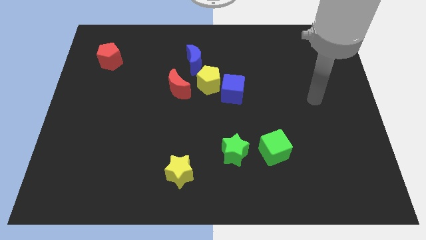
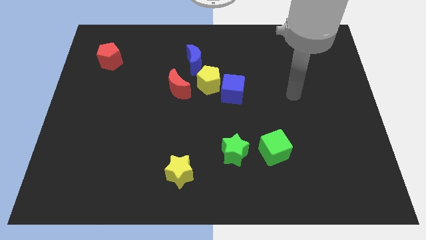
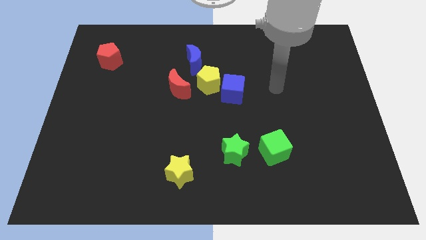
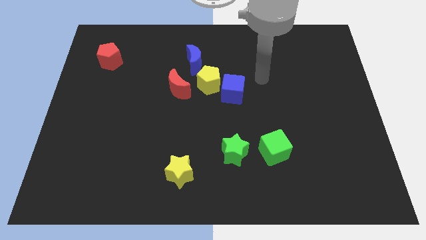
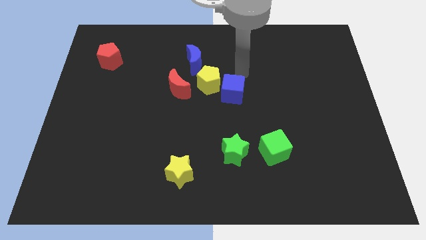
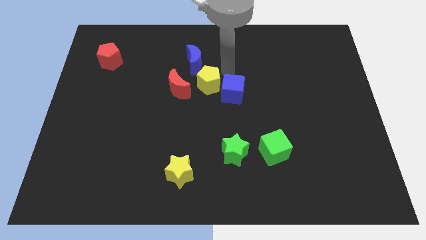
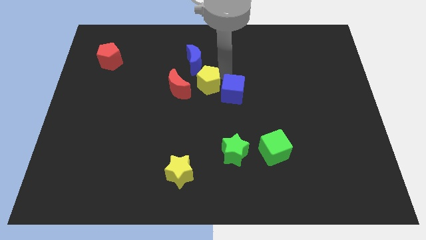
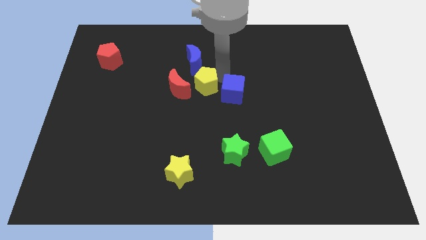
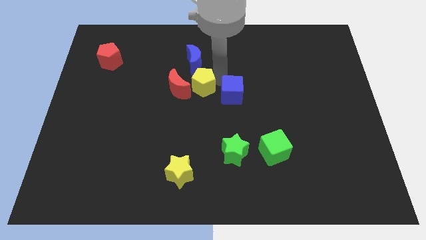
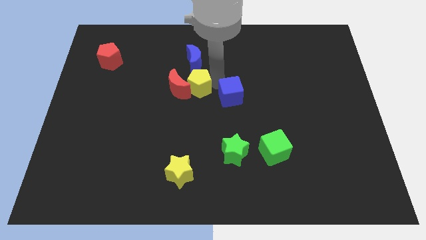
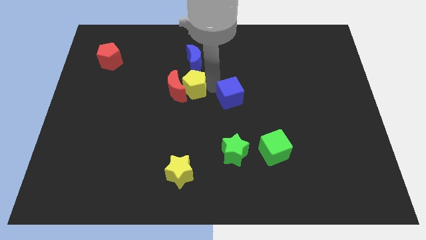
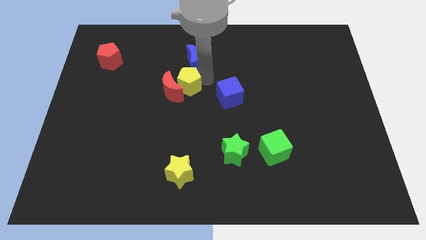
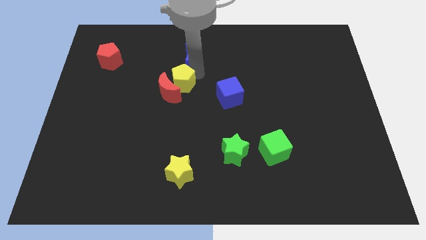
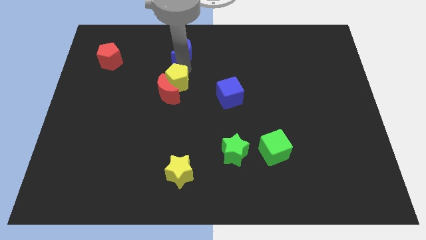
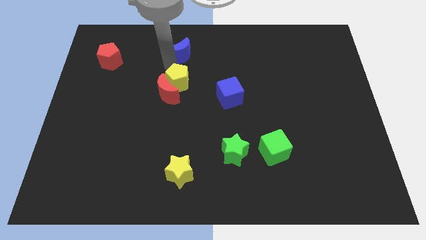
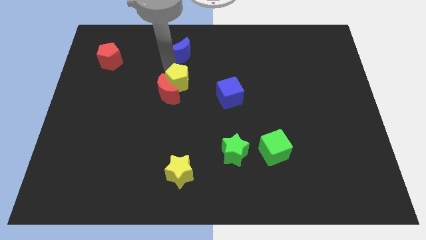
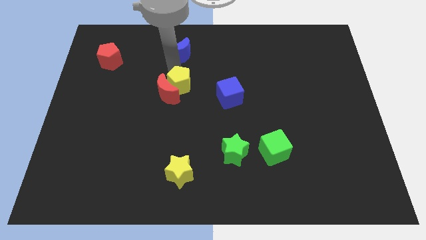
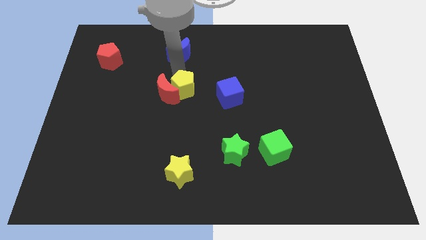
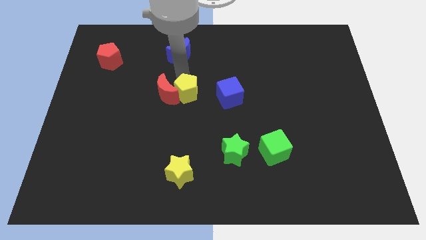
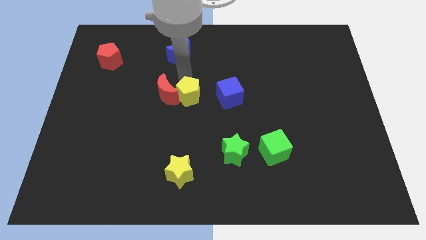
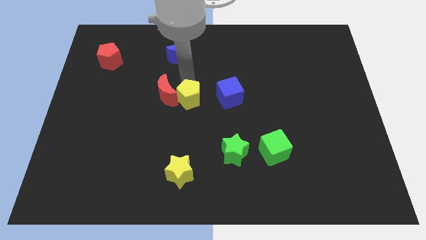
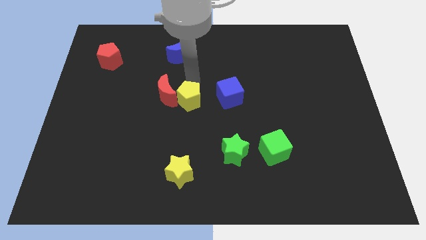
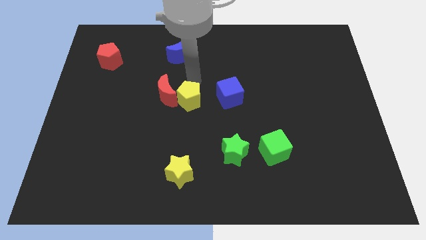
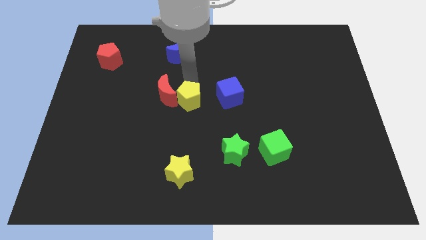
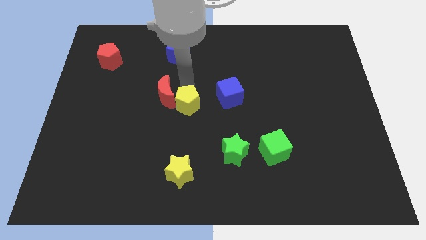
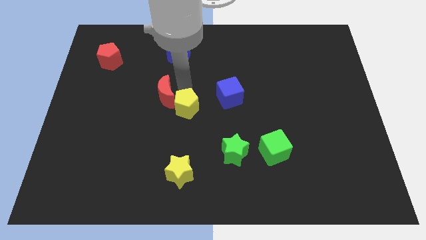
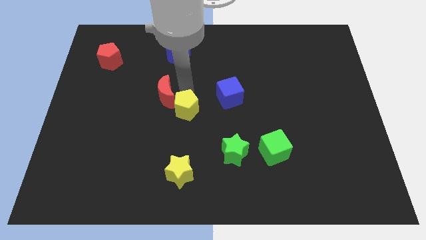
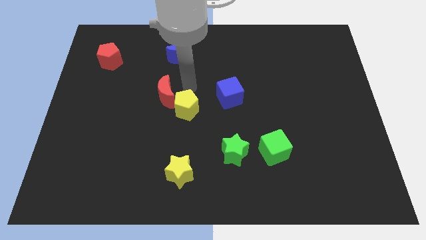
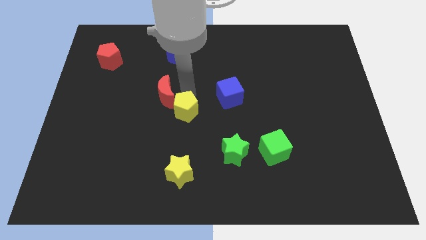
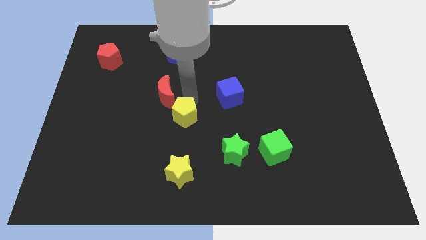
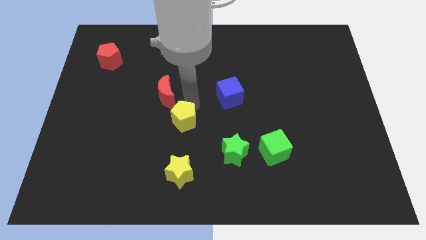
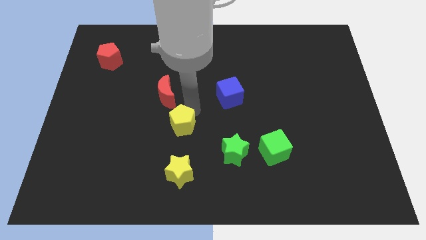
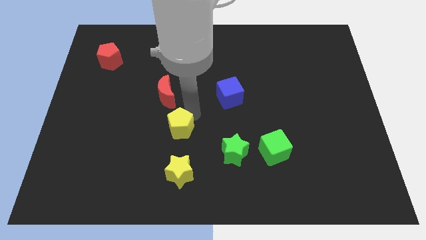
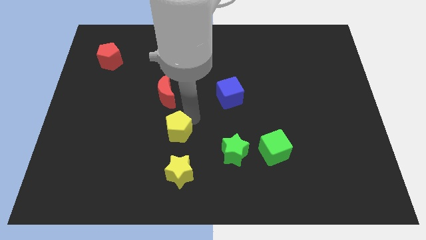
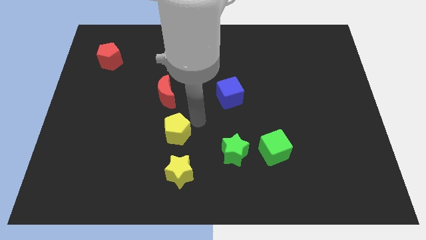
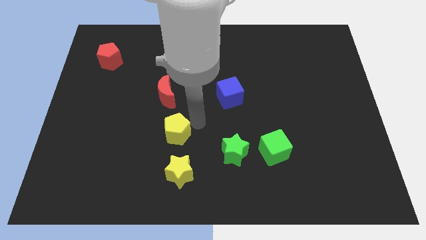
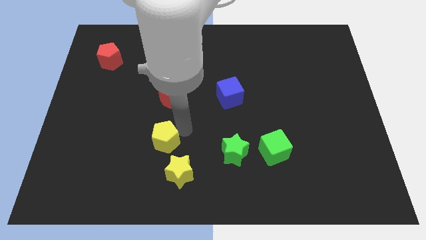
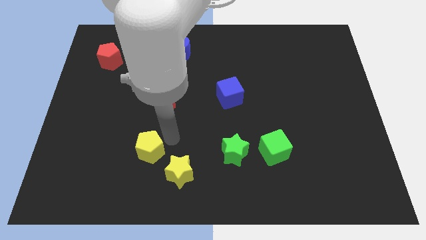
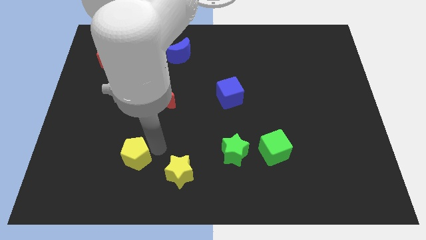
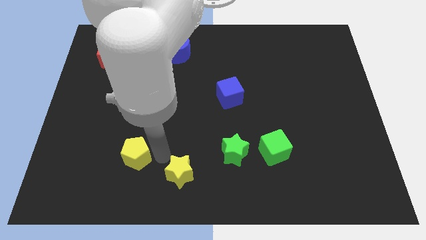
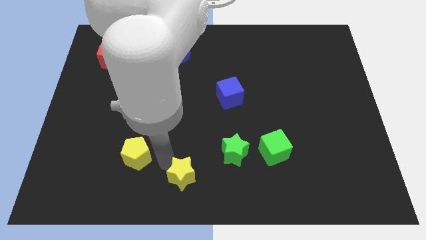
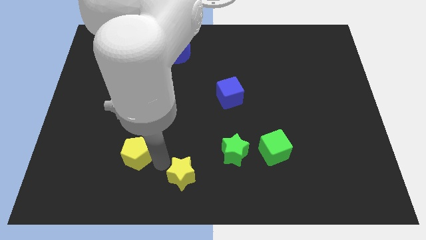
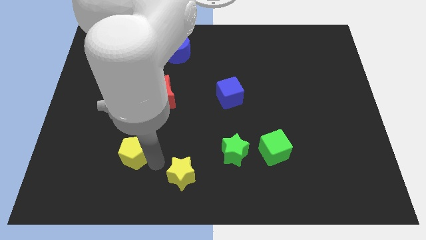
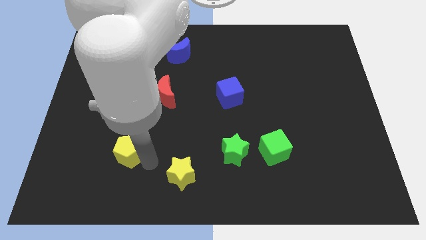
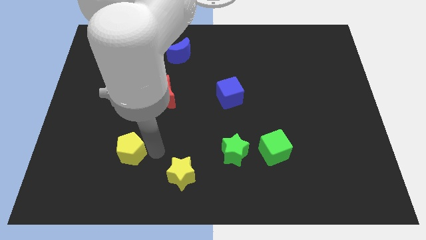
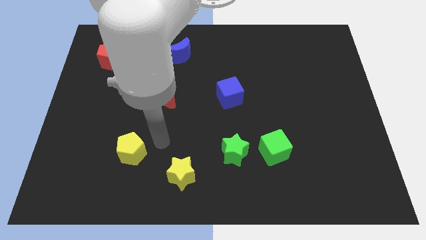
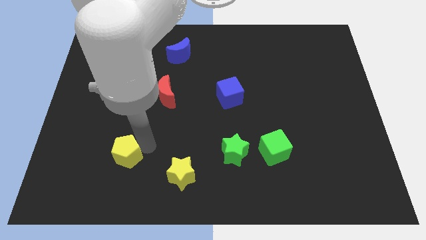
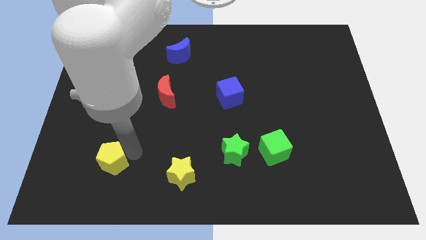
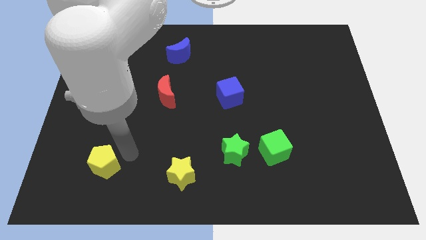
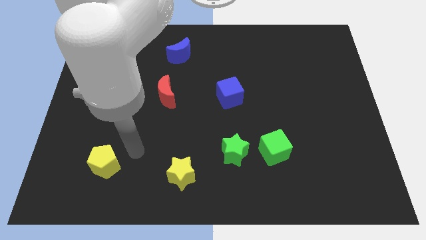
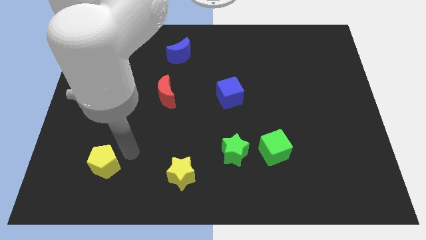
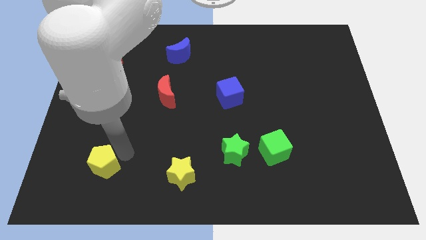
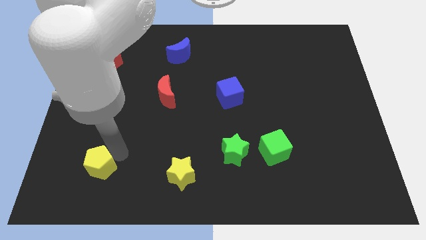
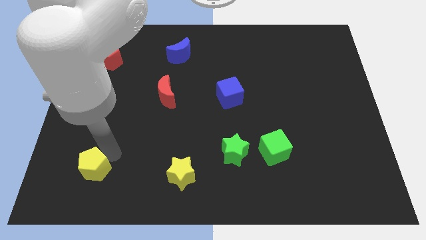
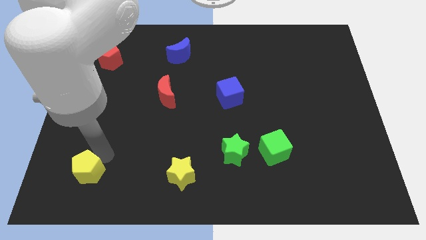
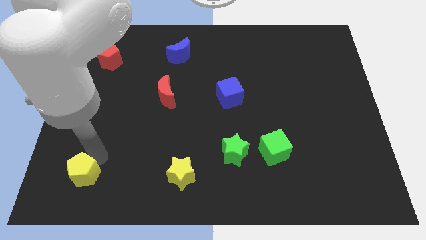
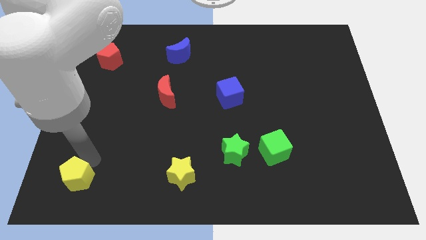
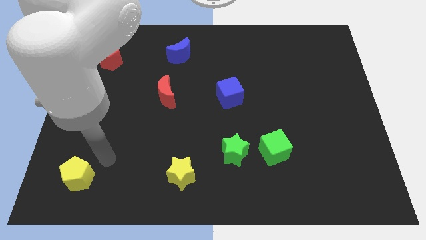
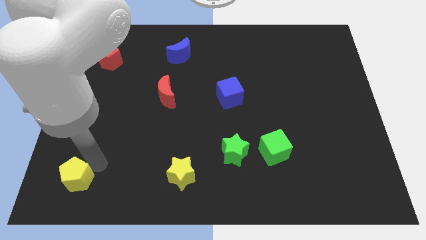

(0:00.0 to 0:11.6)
push the yellow pentagon to the lower left corner

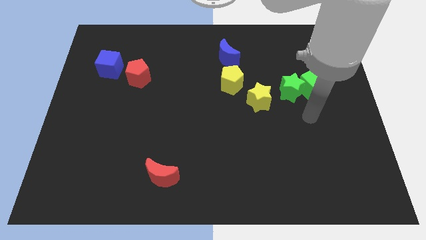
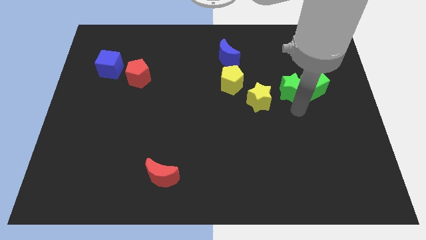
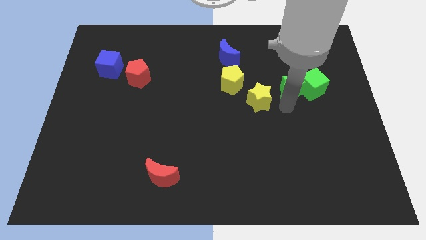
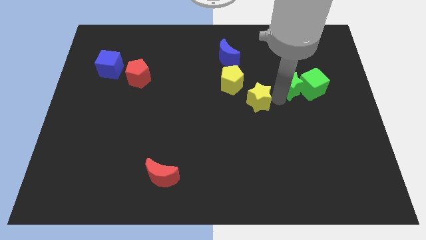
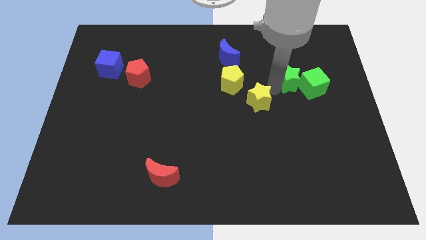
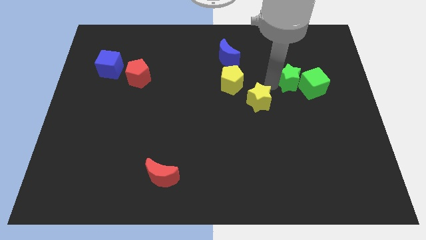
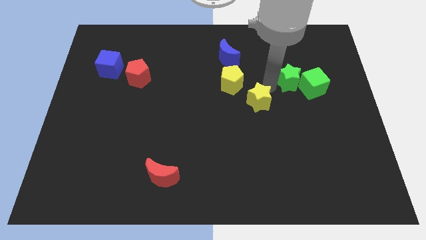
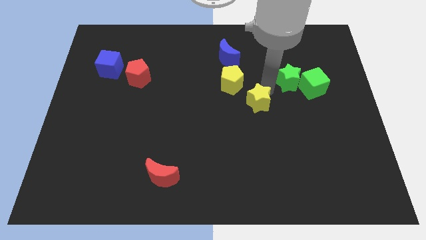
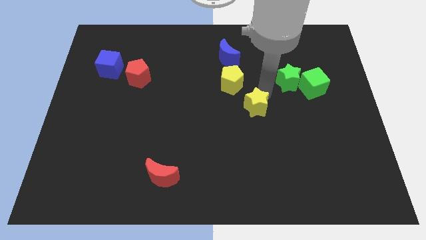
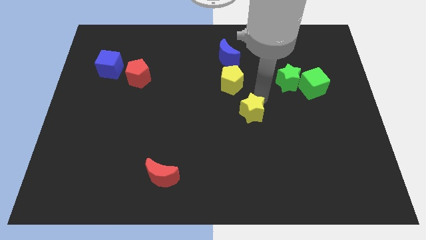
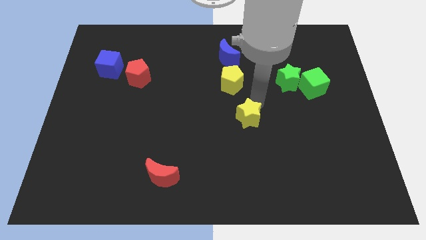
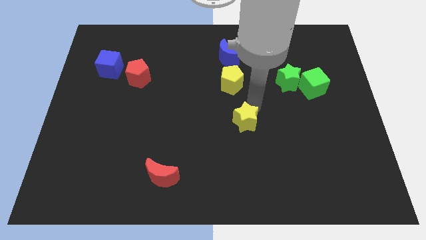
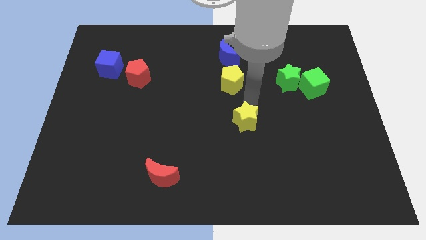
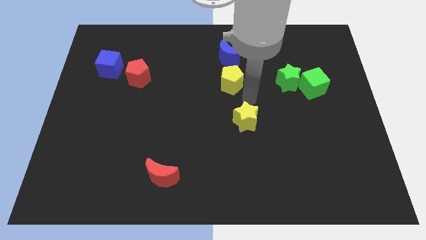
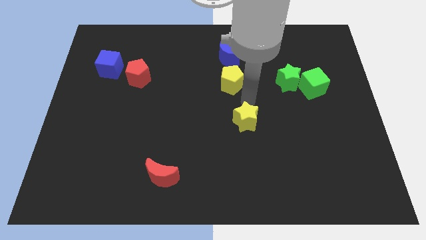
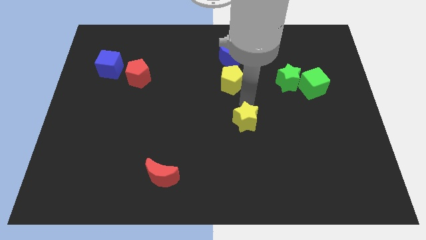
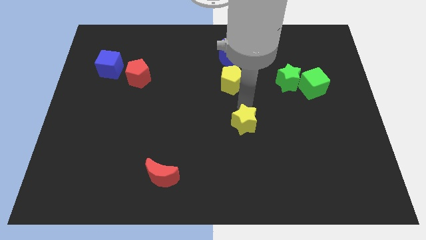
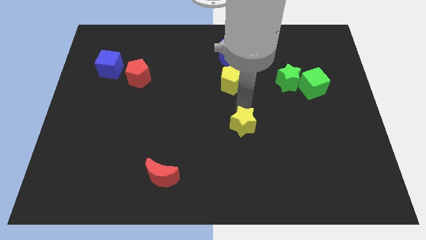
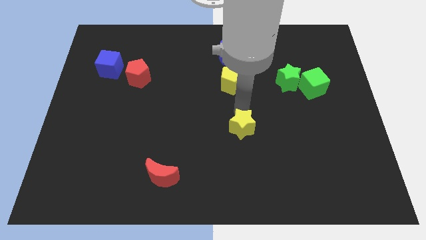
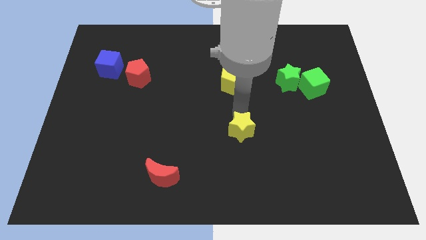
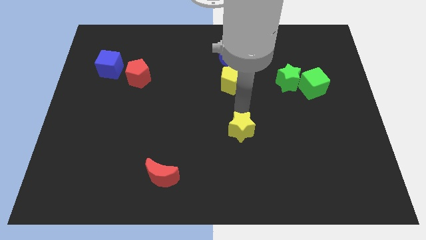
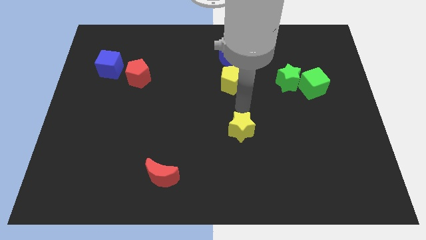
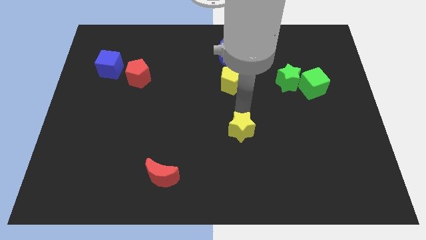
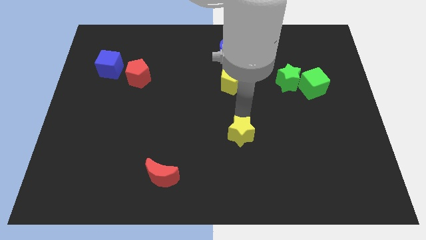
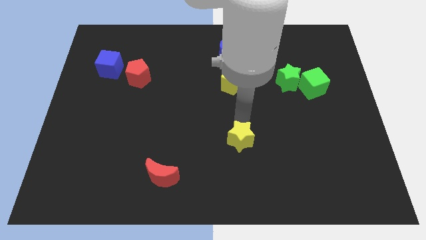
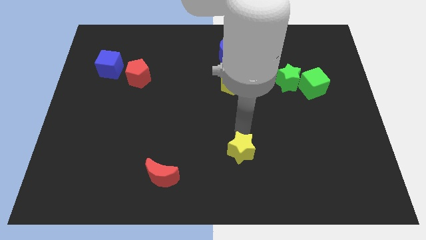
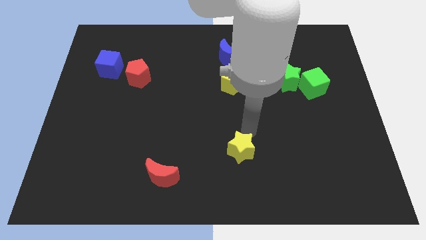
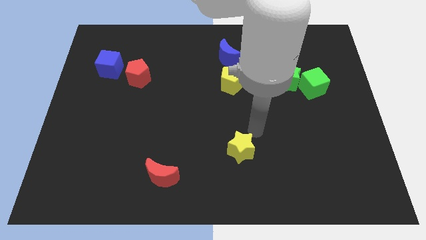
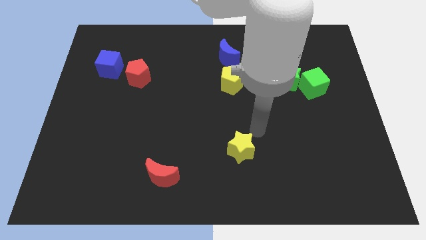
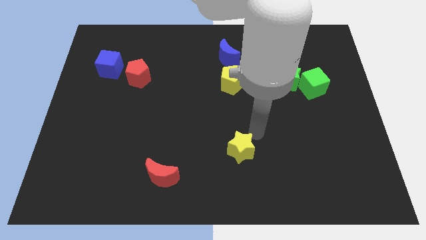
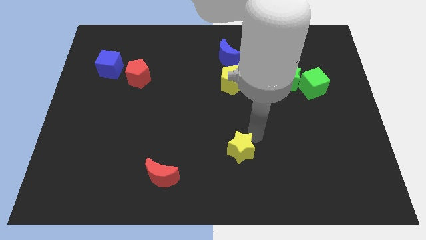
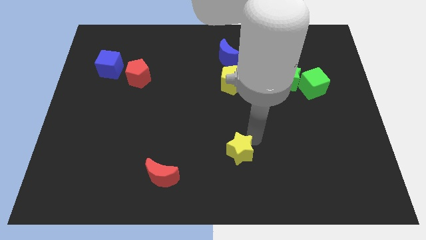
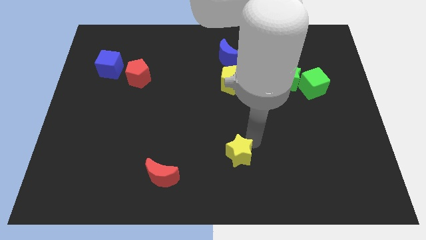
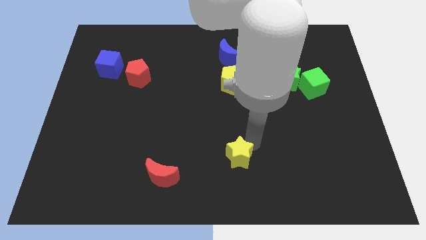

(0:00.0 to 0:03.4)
put the yellow star to the bottom side
